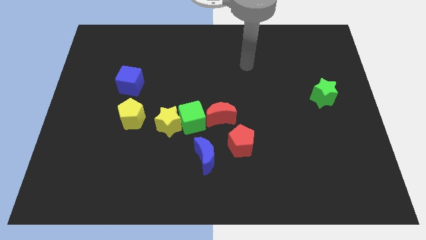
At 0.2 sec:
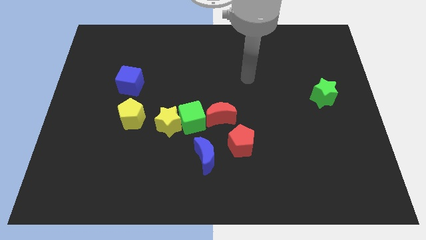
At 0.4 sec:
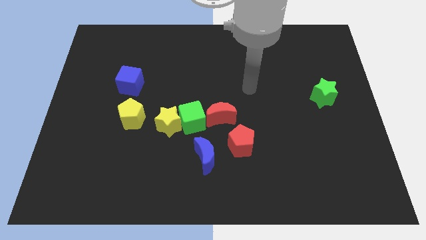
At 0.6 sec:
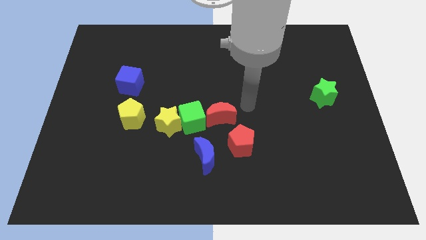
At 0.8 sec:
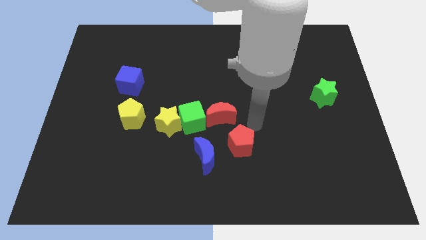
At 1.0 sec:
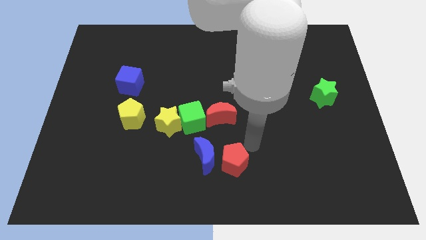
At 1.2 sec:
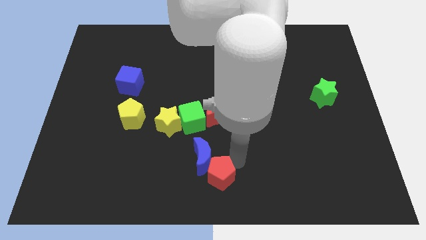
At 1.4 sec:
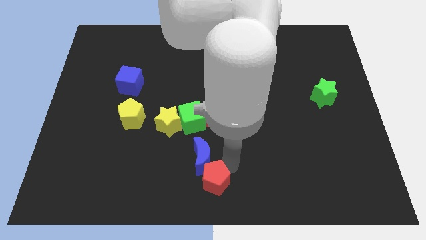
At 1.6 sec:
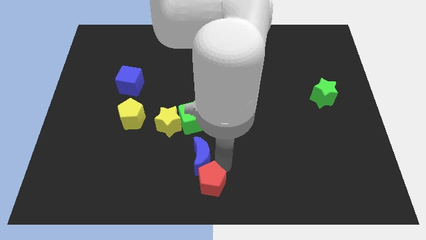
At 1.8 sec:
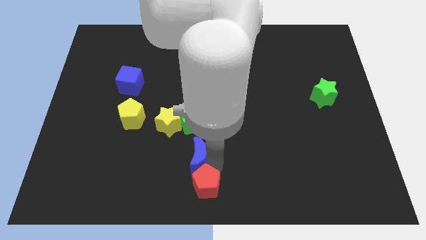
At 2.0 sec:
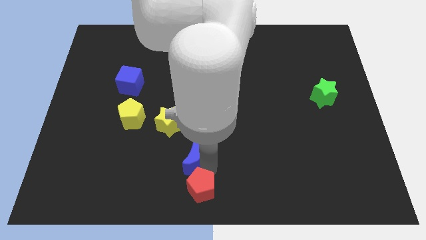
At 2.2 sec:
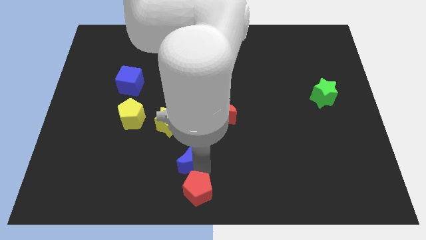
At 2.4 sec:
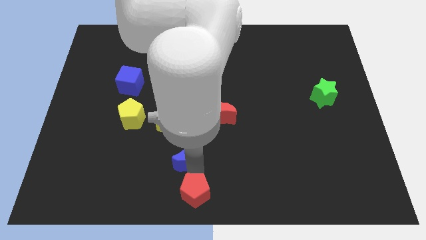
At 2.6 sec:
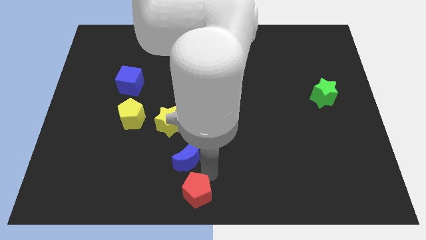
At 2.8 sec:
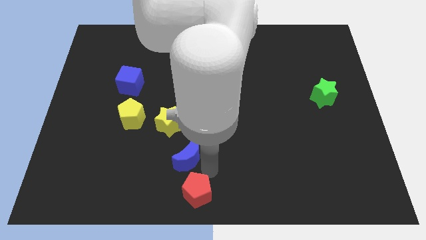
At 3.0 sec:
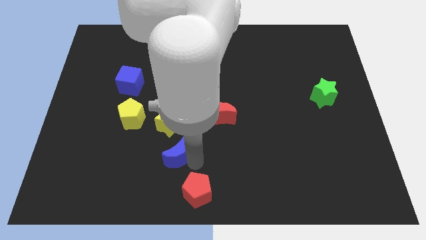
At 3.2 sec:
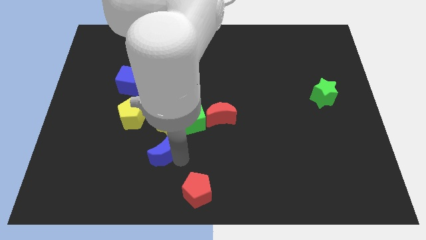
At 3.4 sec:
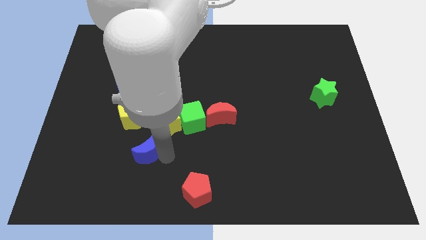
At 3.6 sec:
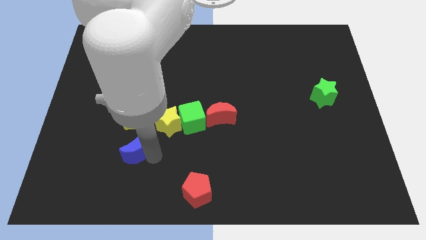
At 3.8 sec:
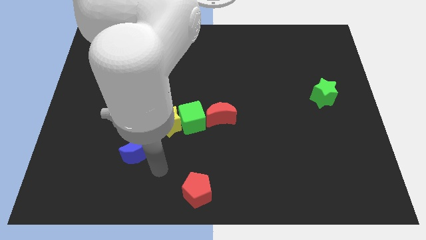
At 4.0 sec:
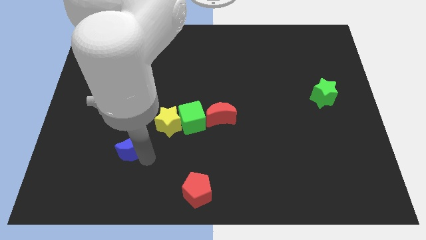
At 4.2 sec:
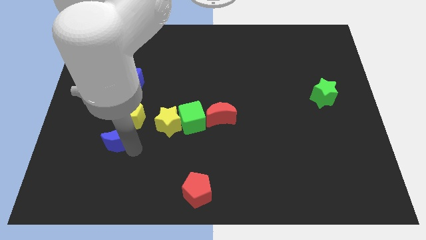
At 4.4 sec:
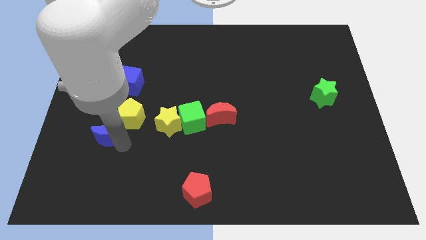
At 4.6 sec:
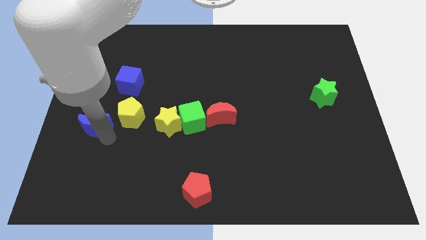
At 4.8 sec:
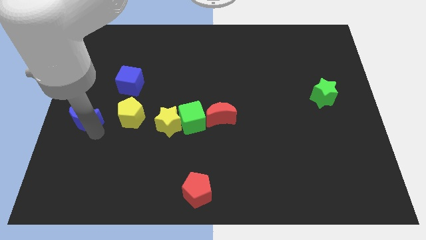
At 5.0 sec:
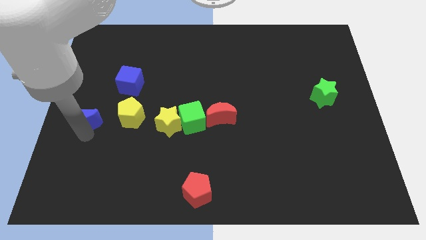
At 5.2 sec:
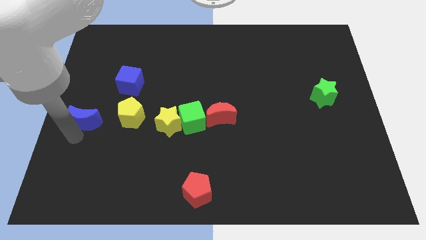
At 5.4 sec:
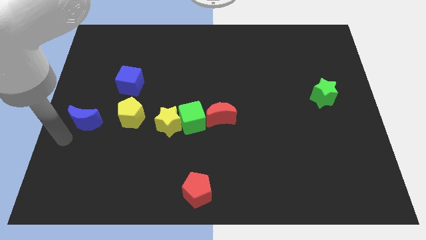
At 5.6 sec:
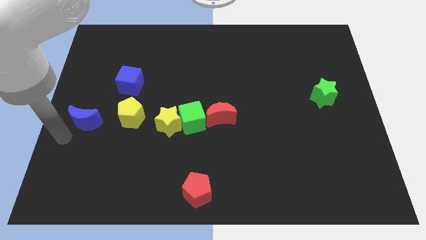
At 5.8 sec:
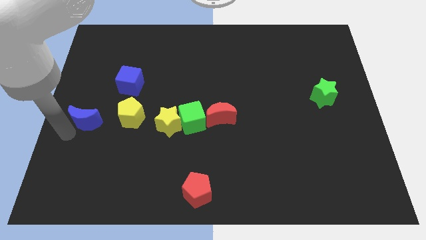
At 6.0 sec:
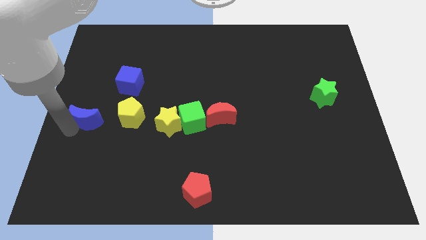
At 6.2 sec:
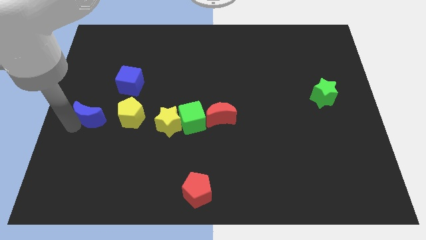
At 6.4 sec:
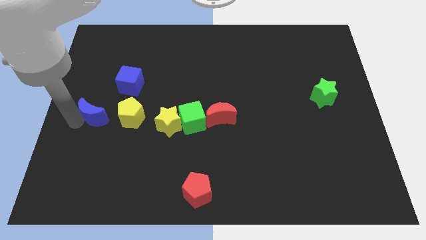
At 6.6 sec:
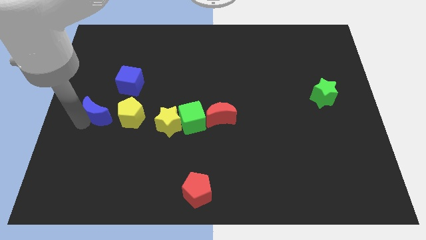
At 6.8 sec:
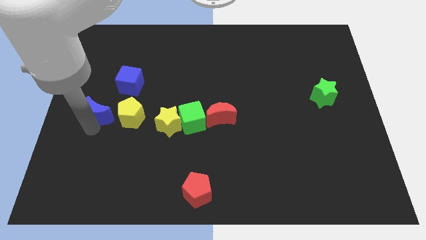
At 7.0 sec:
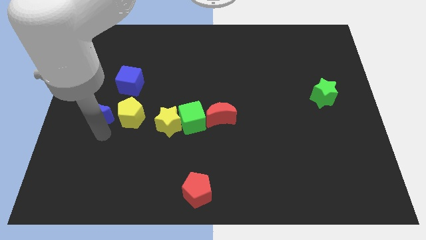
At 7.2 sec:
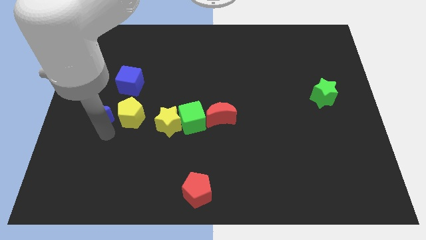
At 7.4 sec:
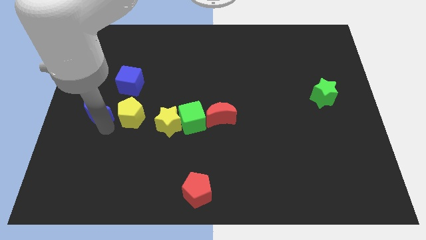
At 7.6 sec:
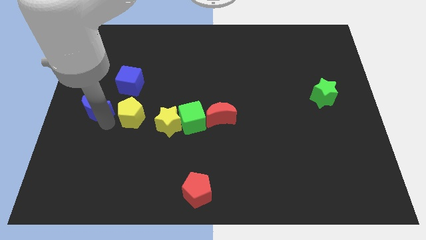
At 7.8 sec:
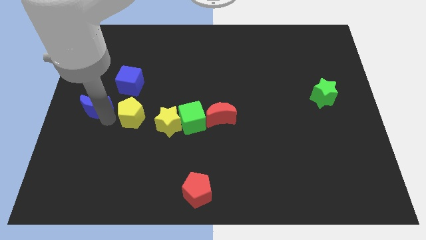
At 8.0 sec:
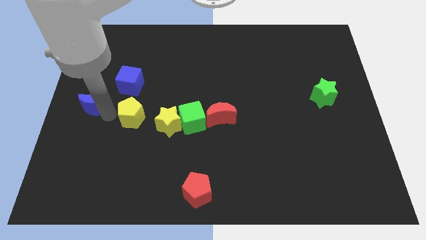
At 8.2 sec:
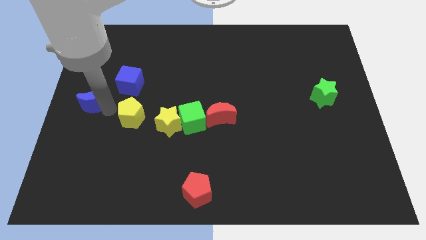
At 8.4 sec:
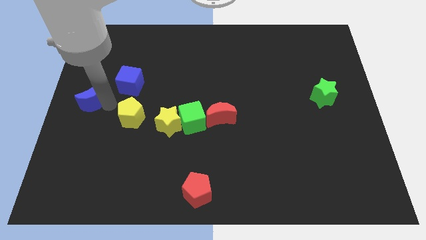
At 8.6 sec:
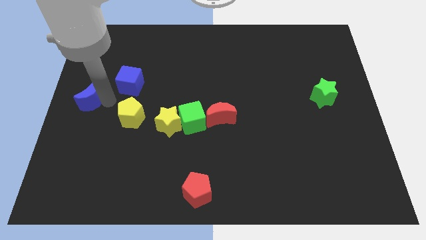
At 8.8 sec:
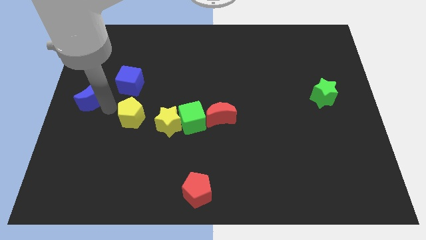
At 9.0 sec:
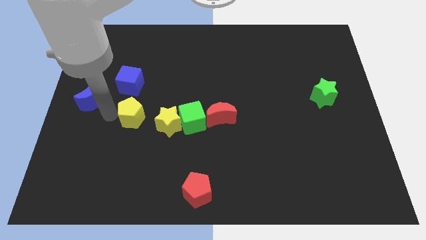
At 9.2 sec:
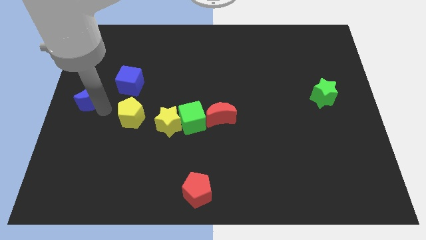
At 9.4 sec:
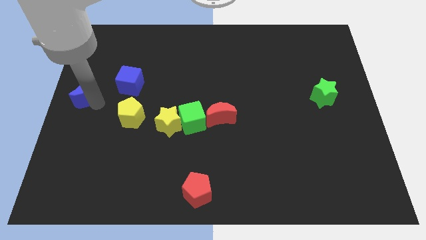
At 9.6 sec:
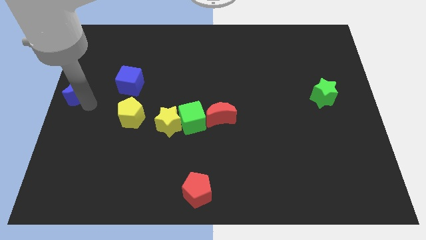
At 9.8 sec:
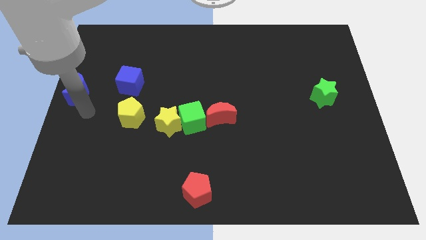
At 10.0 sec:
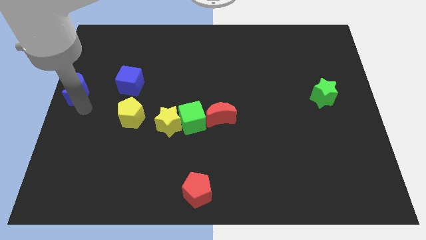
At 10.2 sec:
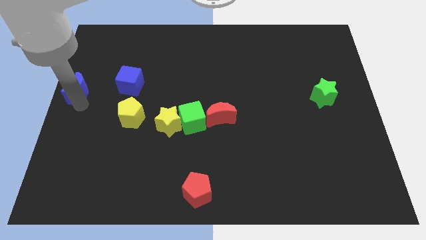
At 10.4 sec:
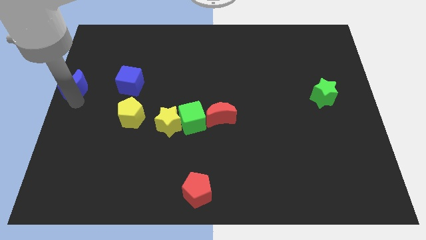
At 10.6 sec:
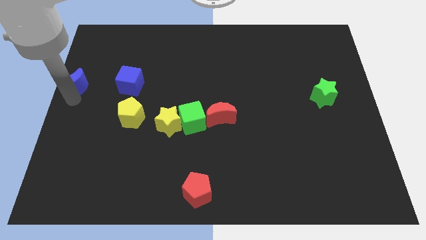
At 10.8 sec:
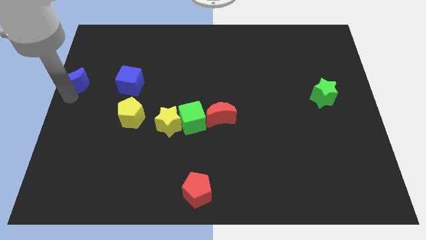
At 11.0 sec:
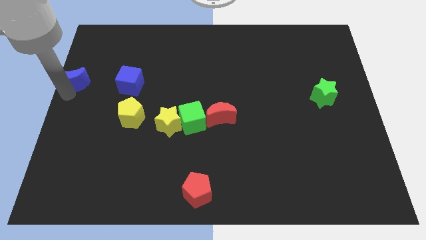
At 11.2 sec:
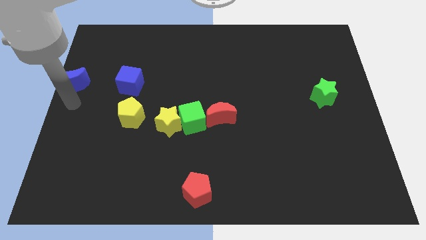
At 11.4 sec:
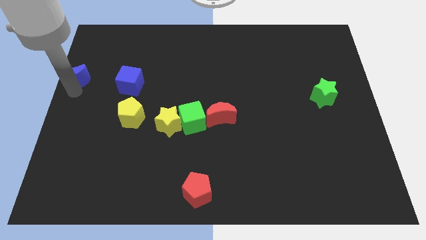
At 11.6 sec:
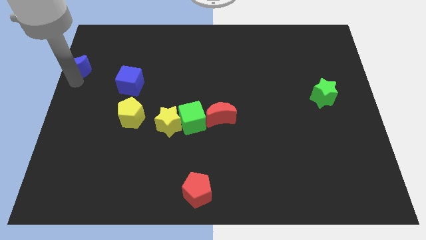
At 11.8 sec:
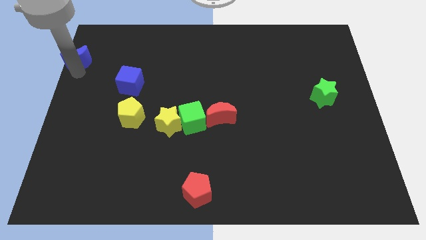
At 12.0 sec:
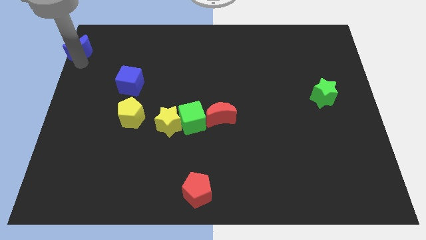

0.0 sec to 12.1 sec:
put the blue moon to the top left of the board

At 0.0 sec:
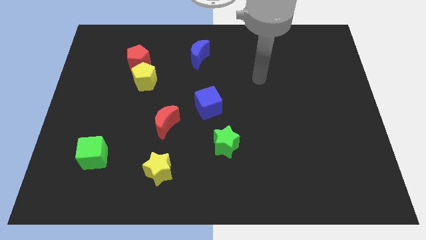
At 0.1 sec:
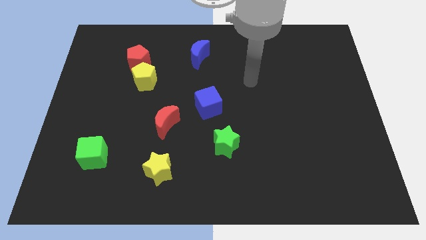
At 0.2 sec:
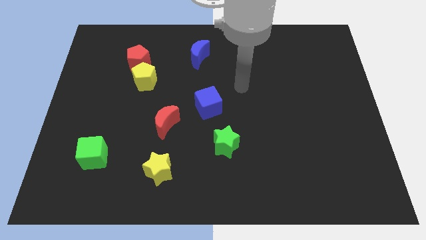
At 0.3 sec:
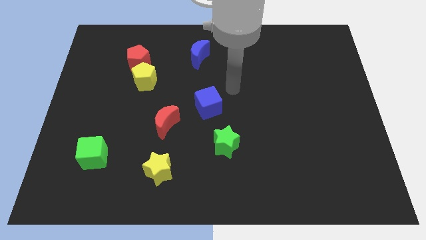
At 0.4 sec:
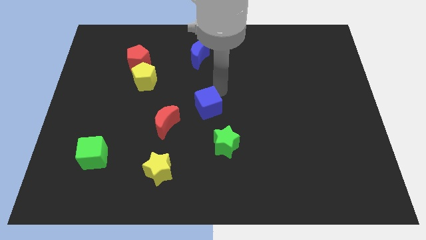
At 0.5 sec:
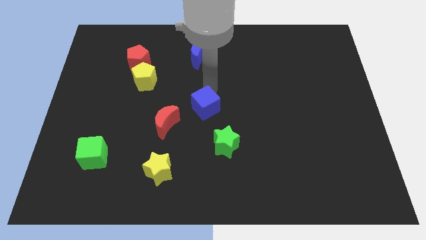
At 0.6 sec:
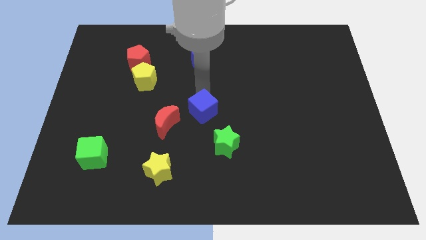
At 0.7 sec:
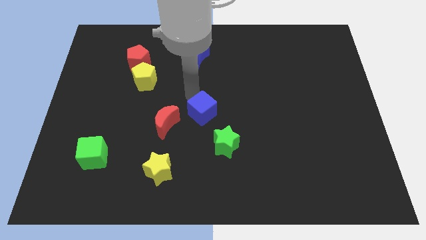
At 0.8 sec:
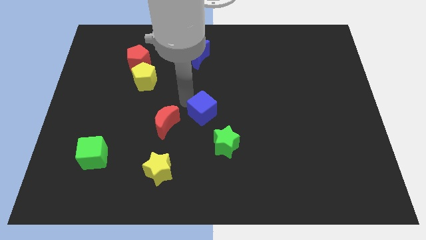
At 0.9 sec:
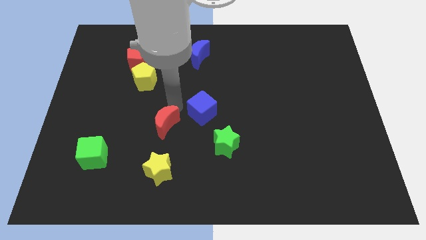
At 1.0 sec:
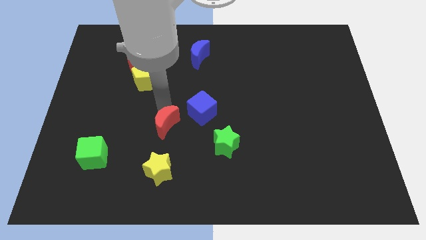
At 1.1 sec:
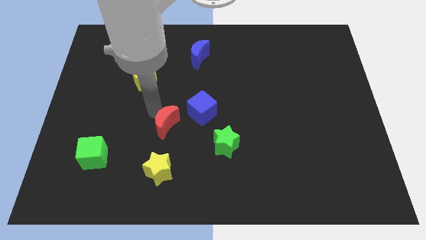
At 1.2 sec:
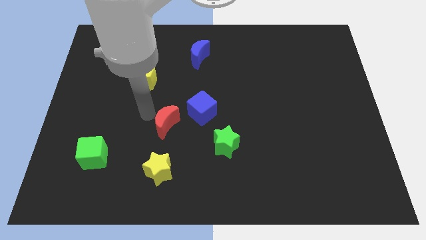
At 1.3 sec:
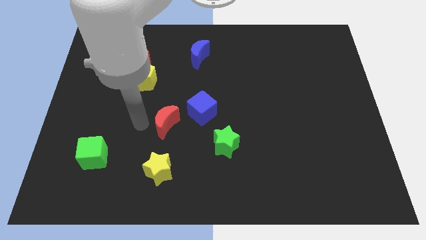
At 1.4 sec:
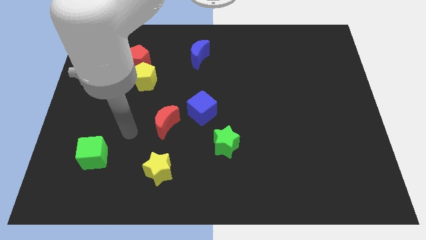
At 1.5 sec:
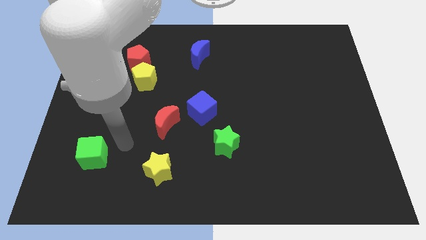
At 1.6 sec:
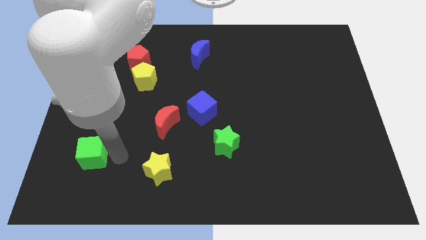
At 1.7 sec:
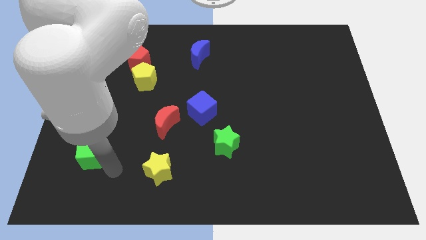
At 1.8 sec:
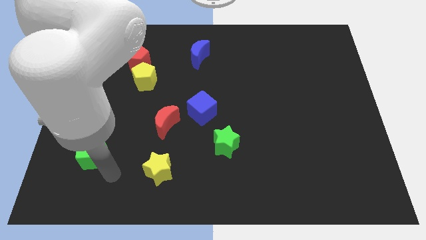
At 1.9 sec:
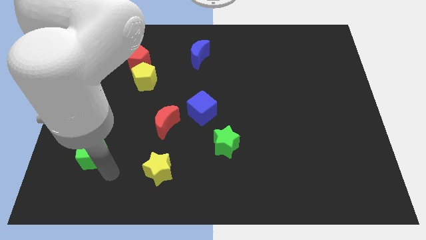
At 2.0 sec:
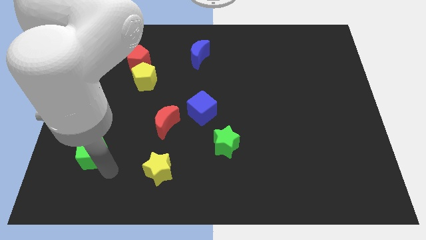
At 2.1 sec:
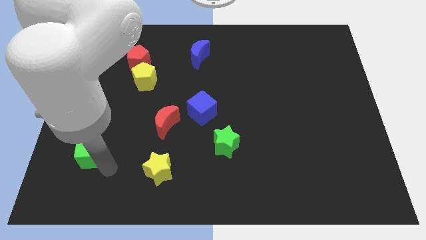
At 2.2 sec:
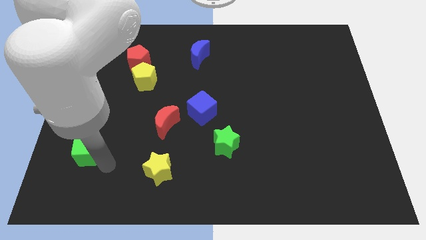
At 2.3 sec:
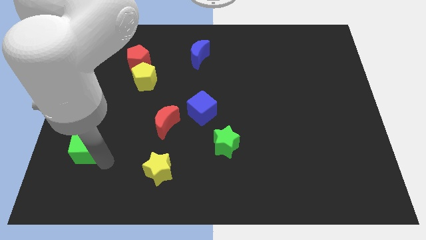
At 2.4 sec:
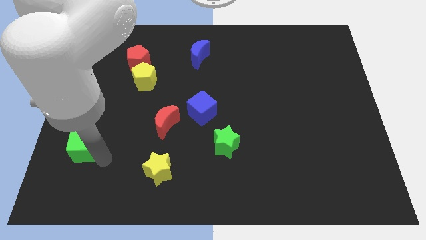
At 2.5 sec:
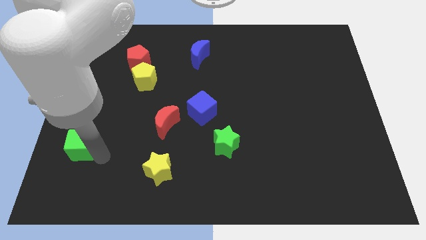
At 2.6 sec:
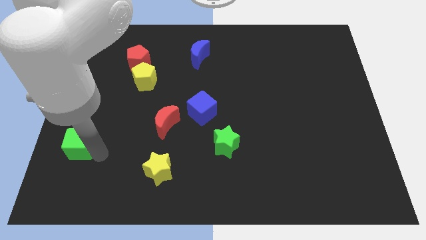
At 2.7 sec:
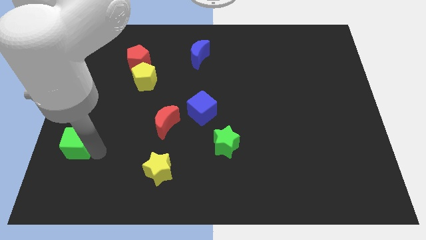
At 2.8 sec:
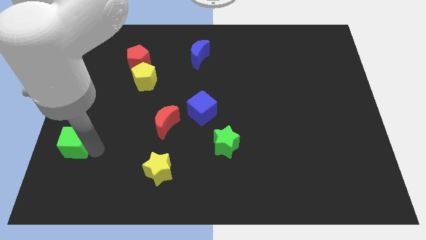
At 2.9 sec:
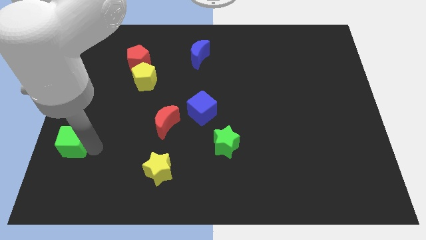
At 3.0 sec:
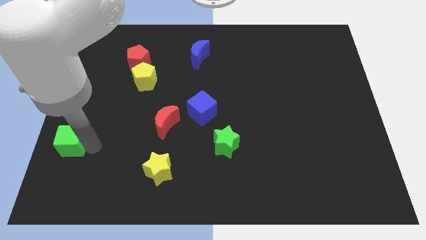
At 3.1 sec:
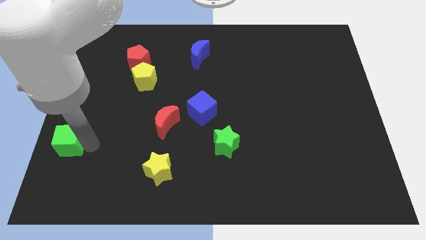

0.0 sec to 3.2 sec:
put the green cube to the center left
